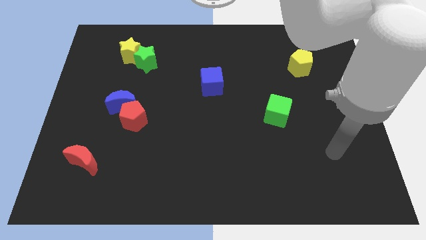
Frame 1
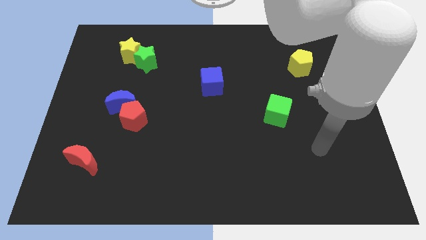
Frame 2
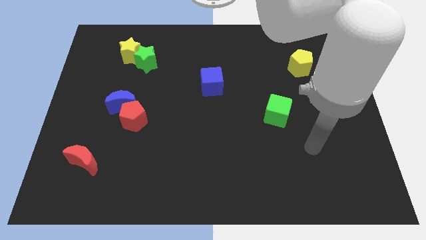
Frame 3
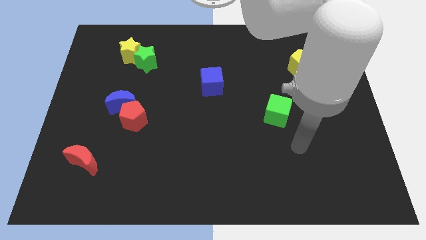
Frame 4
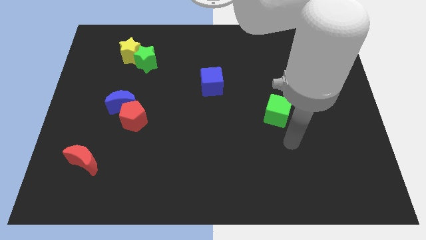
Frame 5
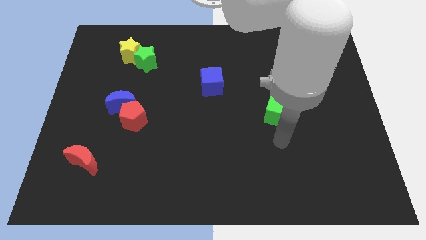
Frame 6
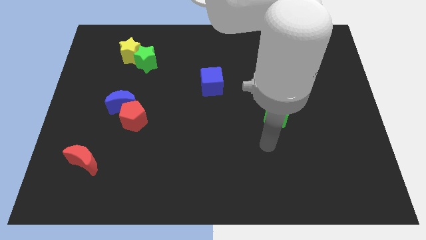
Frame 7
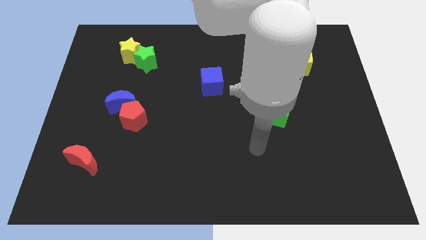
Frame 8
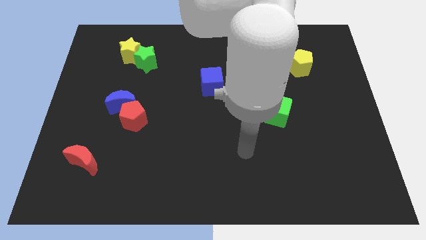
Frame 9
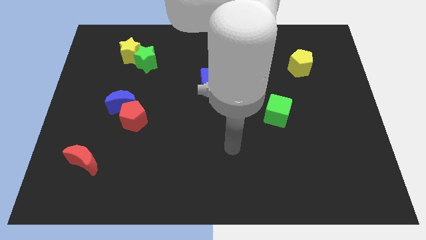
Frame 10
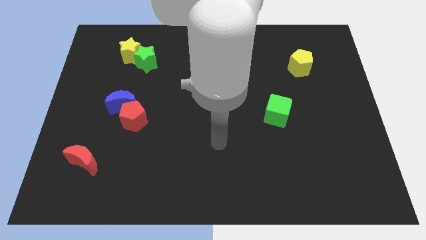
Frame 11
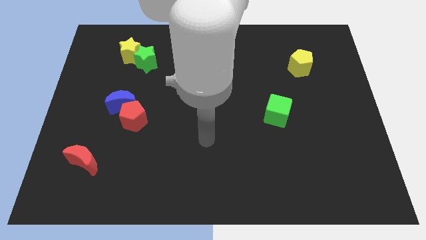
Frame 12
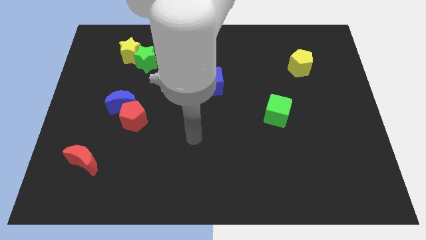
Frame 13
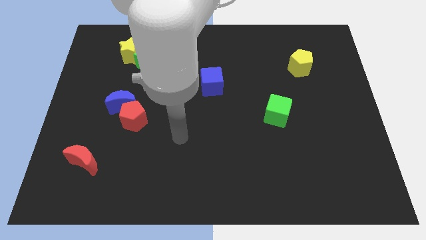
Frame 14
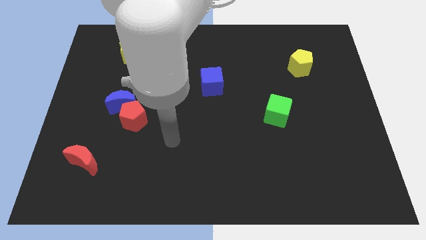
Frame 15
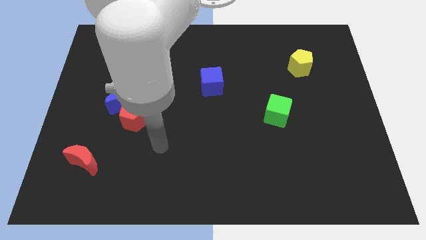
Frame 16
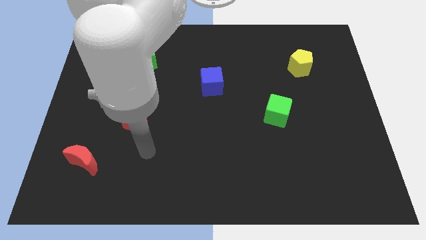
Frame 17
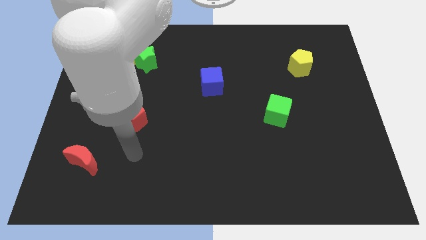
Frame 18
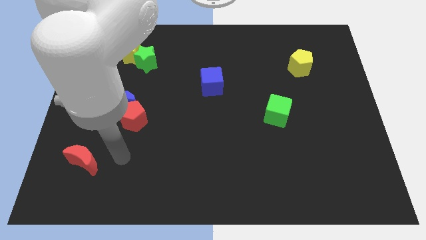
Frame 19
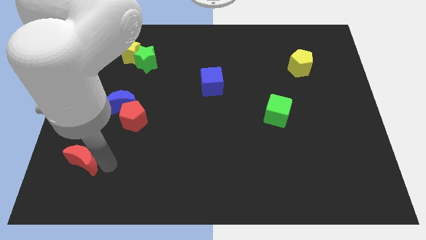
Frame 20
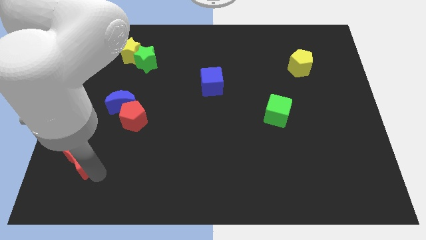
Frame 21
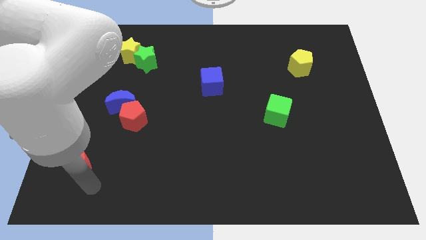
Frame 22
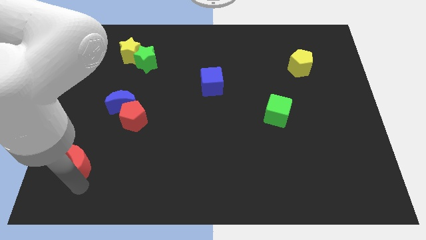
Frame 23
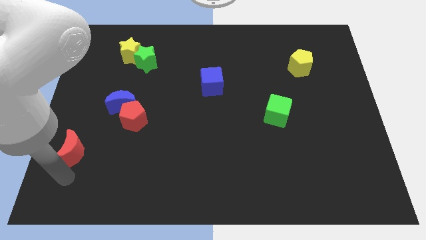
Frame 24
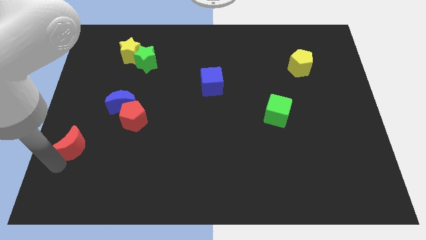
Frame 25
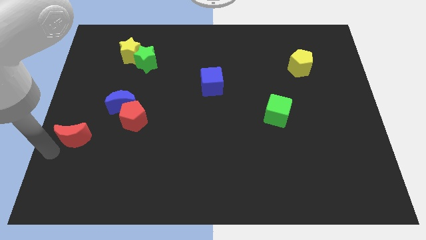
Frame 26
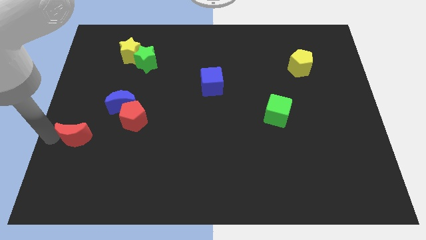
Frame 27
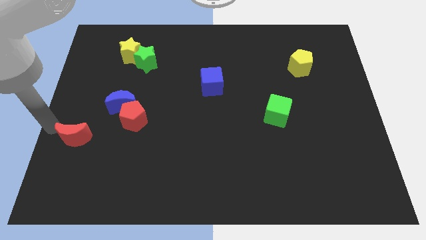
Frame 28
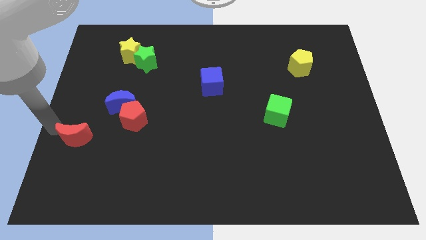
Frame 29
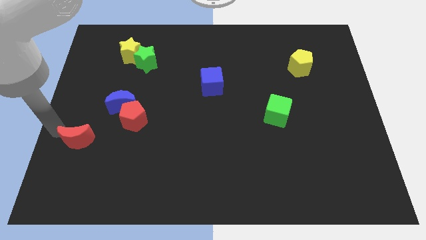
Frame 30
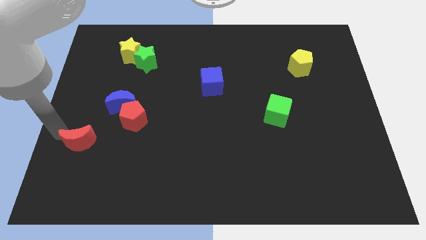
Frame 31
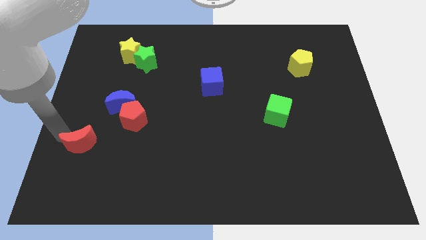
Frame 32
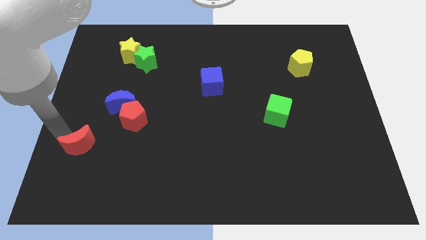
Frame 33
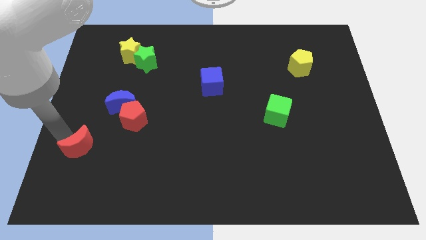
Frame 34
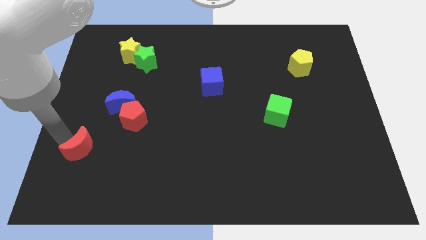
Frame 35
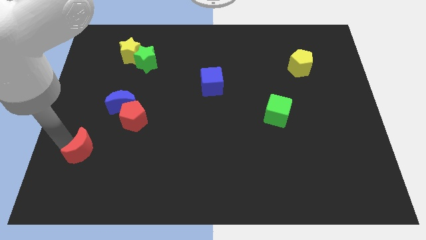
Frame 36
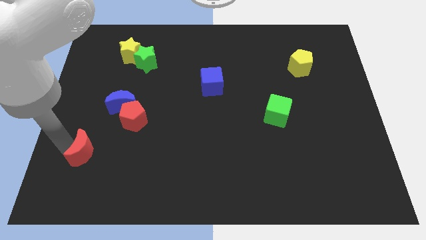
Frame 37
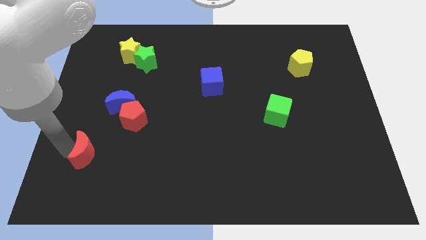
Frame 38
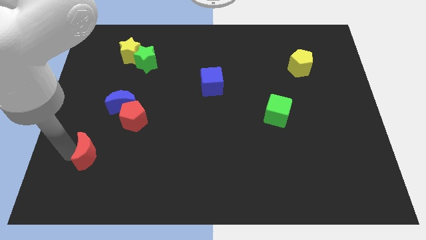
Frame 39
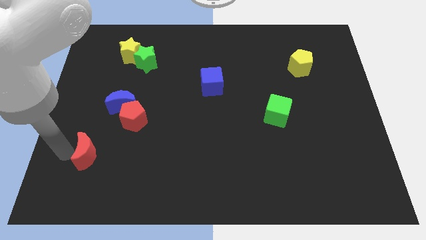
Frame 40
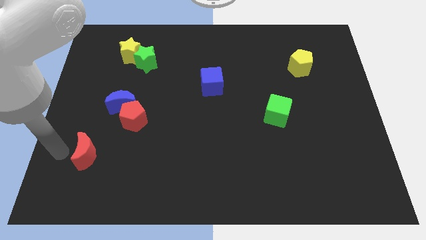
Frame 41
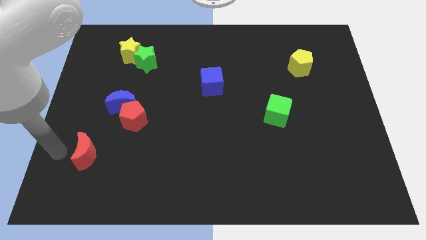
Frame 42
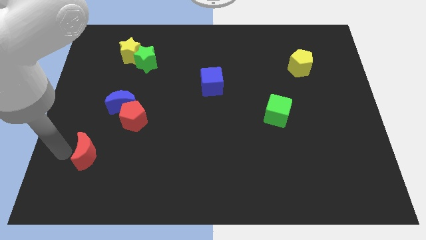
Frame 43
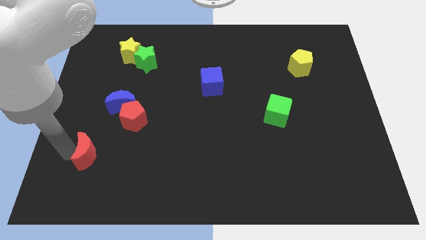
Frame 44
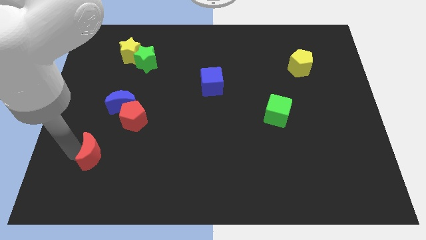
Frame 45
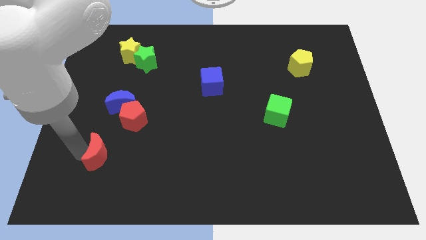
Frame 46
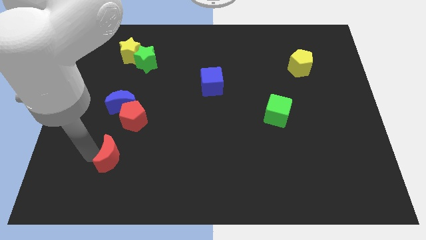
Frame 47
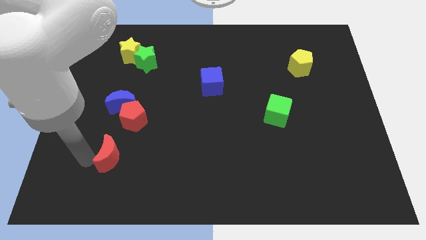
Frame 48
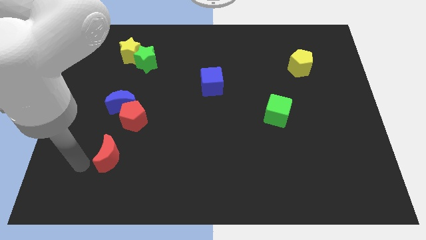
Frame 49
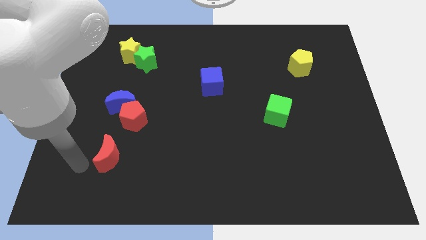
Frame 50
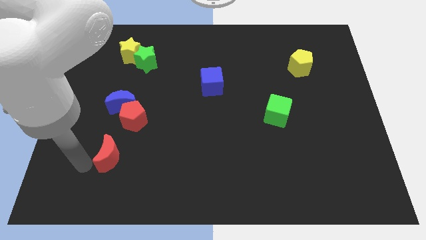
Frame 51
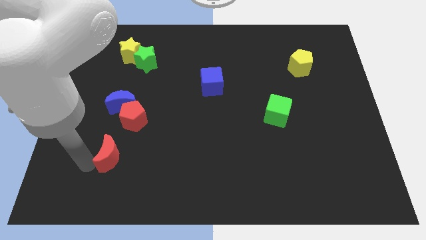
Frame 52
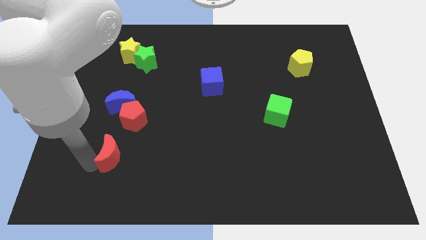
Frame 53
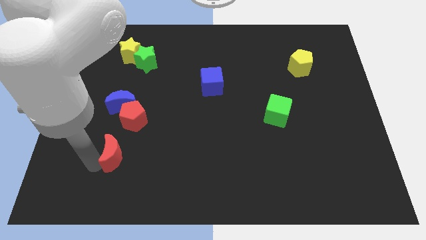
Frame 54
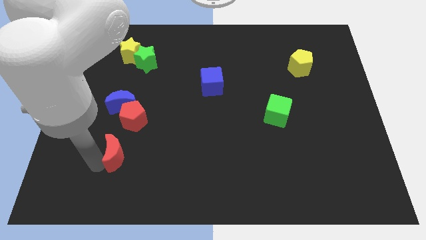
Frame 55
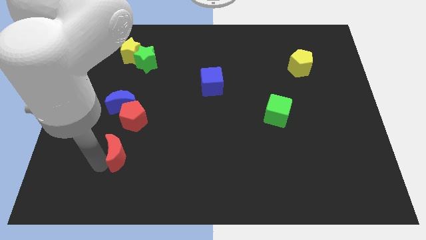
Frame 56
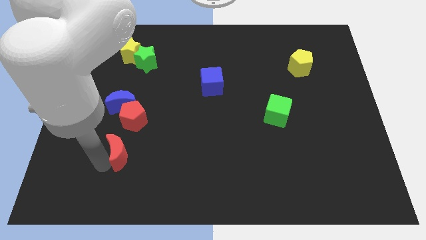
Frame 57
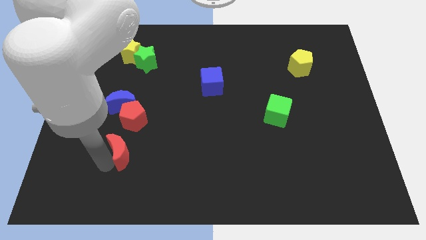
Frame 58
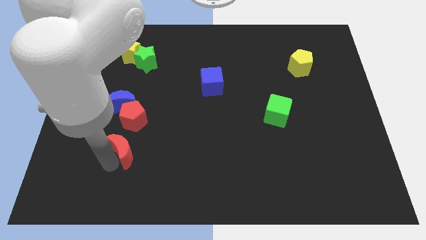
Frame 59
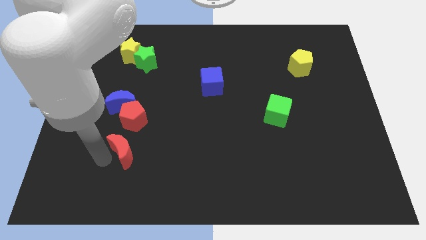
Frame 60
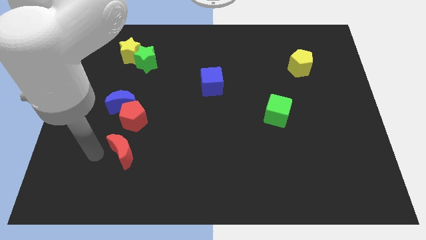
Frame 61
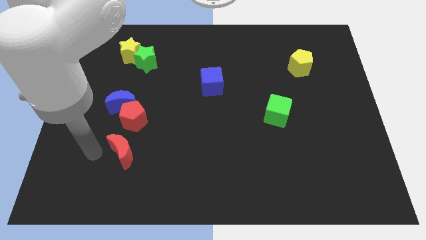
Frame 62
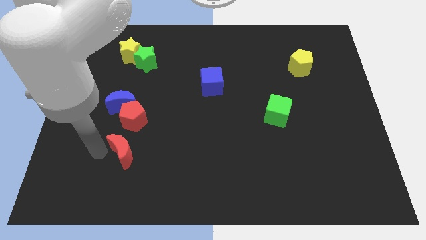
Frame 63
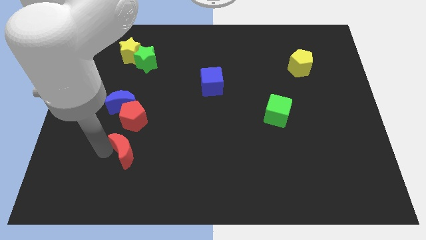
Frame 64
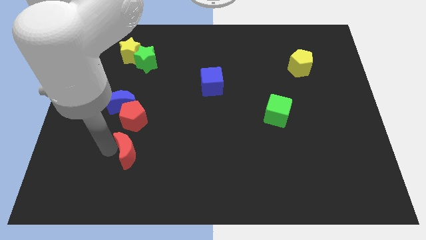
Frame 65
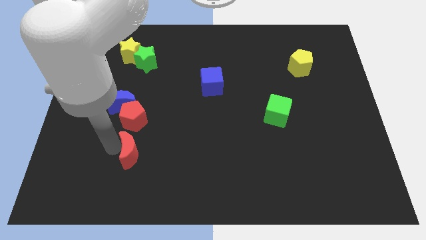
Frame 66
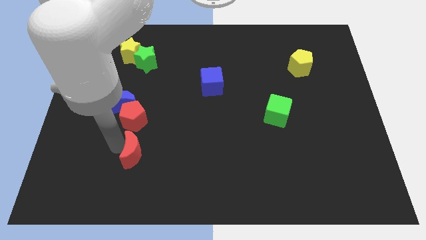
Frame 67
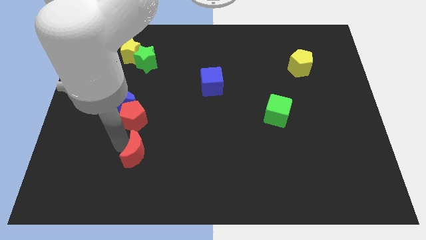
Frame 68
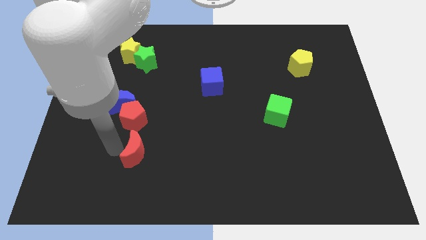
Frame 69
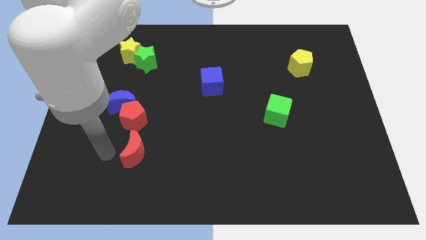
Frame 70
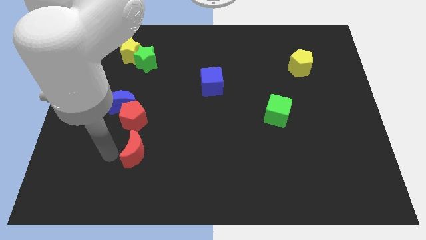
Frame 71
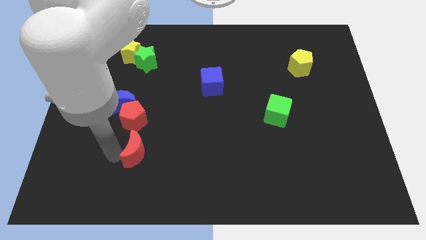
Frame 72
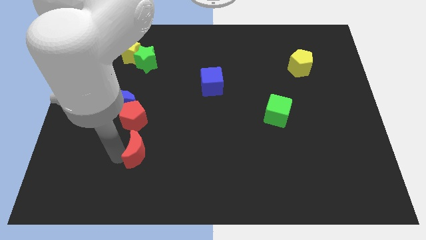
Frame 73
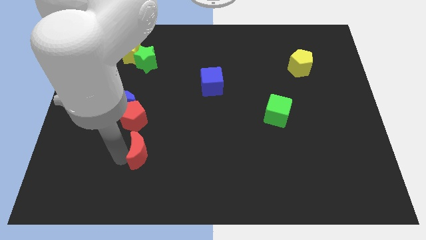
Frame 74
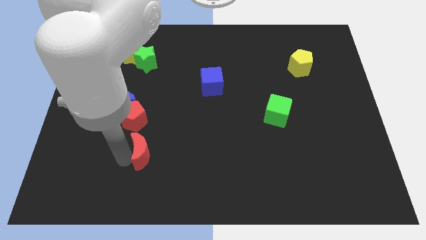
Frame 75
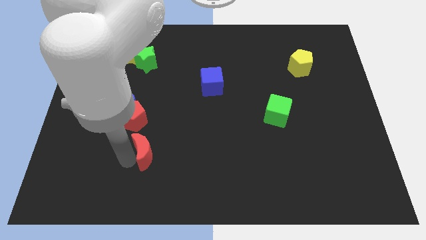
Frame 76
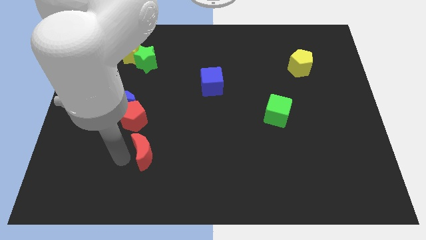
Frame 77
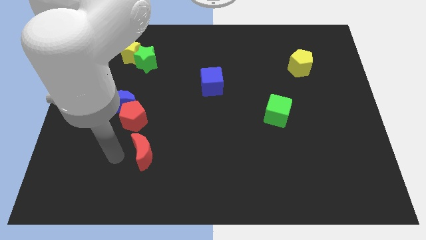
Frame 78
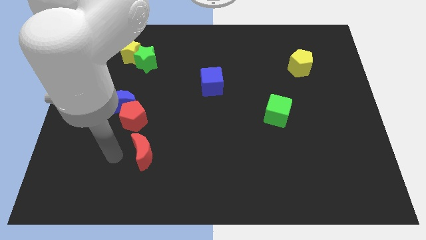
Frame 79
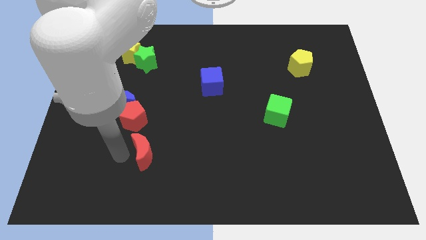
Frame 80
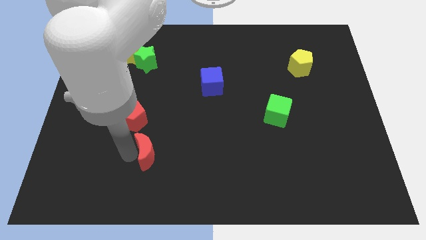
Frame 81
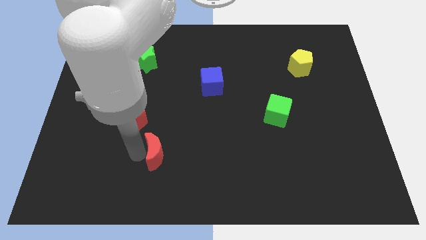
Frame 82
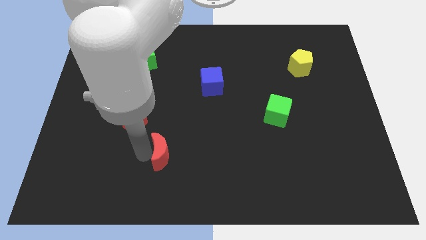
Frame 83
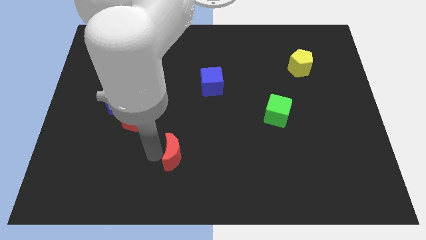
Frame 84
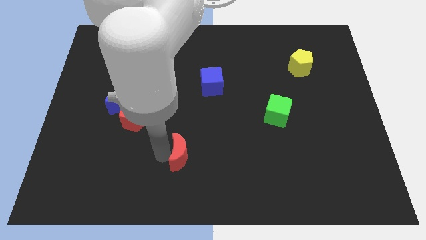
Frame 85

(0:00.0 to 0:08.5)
push the red moon to the right
